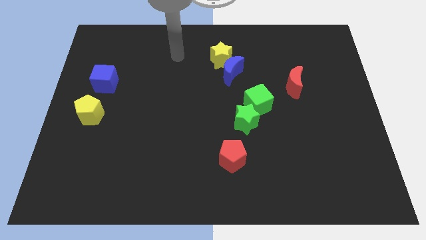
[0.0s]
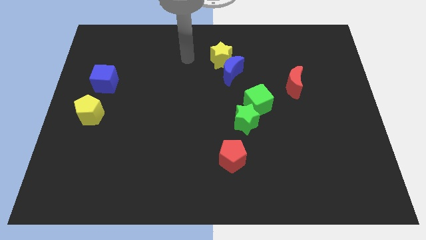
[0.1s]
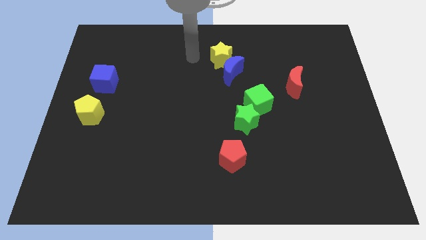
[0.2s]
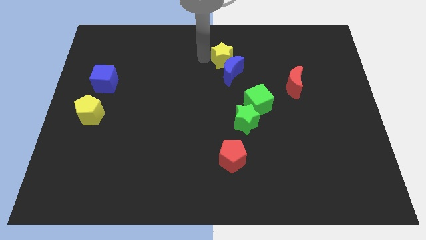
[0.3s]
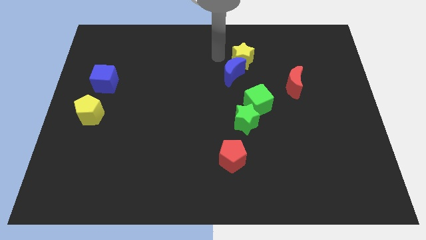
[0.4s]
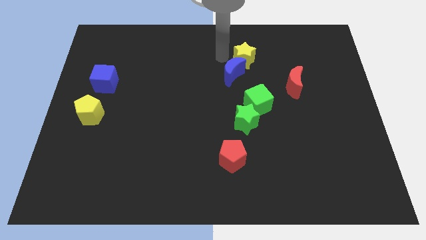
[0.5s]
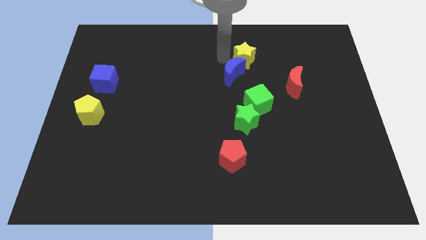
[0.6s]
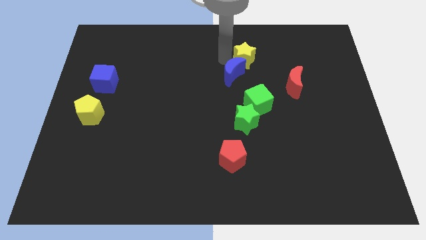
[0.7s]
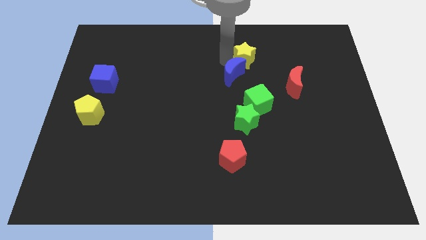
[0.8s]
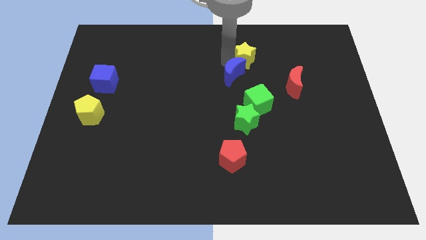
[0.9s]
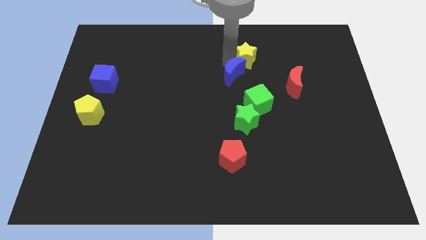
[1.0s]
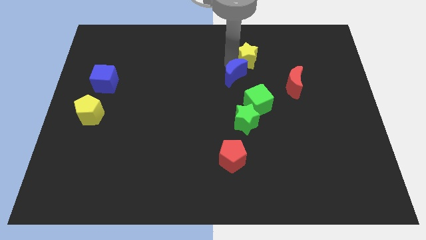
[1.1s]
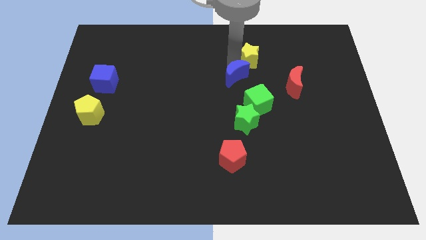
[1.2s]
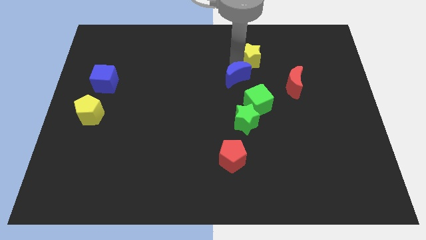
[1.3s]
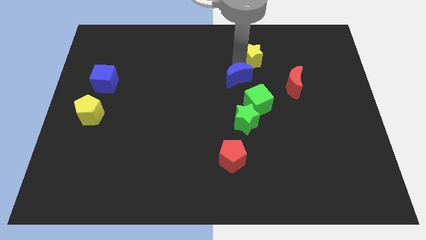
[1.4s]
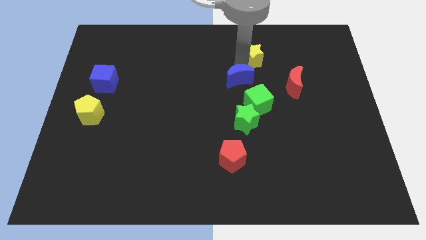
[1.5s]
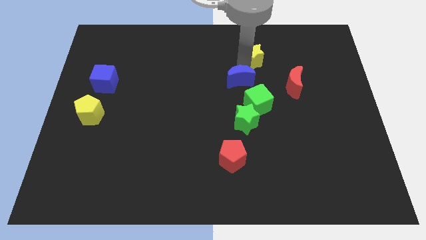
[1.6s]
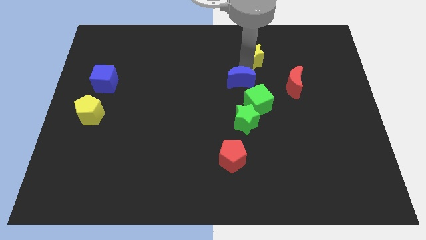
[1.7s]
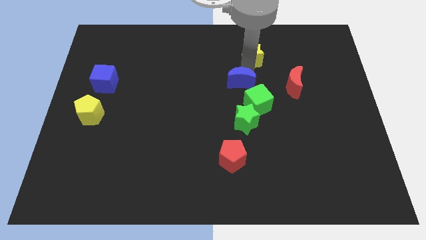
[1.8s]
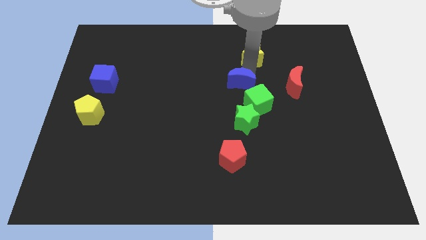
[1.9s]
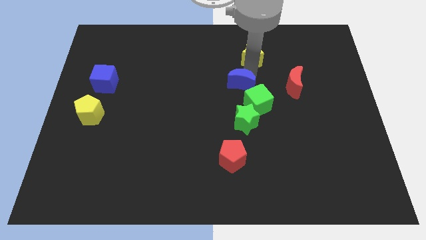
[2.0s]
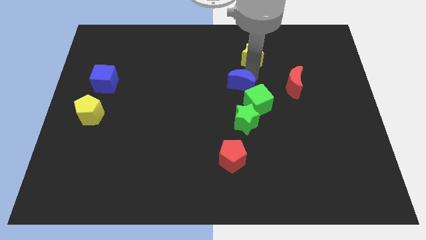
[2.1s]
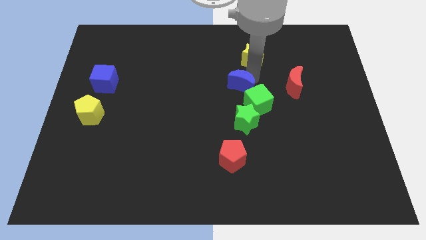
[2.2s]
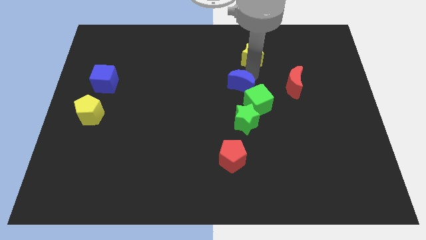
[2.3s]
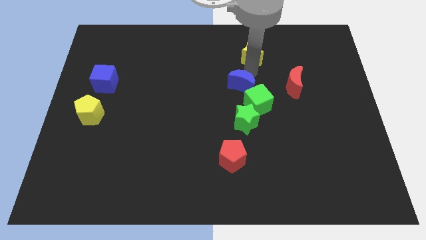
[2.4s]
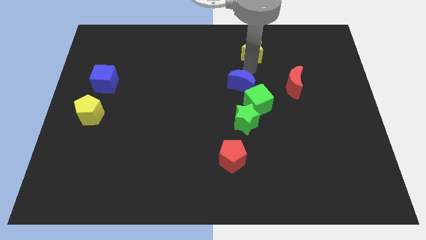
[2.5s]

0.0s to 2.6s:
pull the blue moon apart from the yellow star

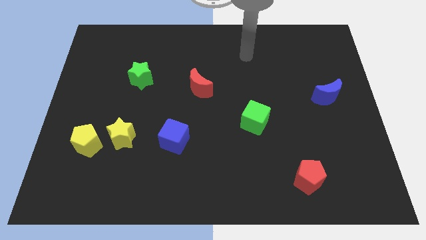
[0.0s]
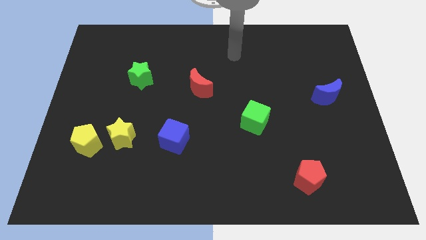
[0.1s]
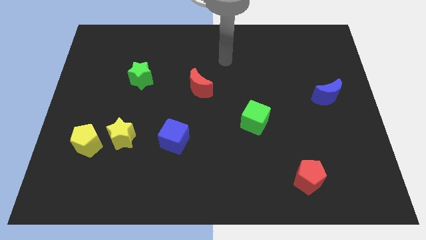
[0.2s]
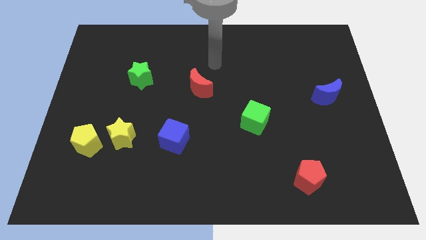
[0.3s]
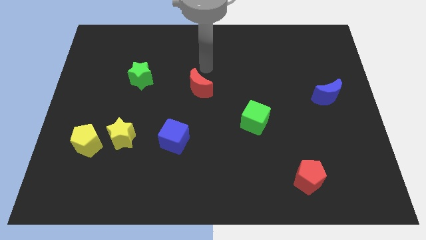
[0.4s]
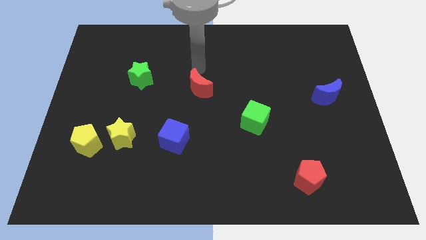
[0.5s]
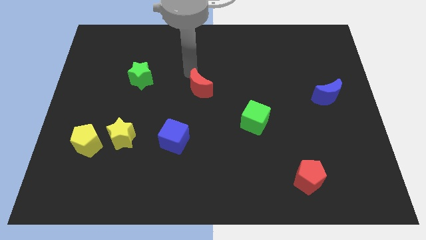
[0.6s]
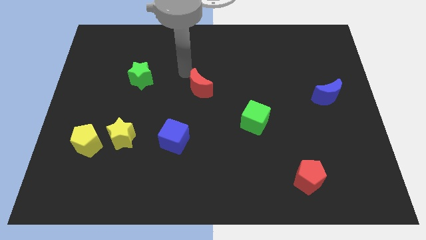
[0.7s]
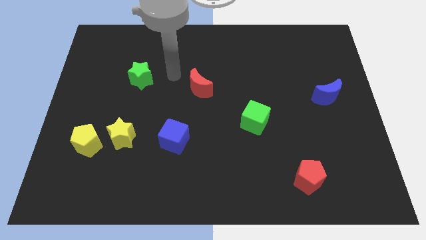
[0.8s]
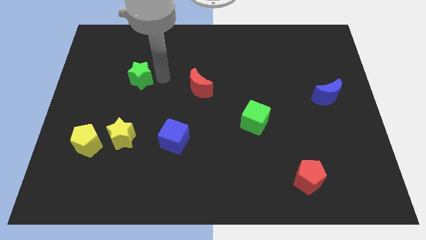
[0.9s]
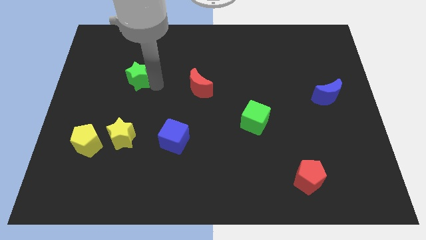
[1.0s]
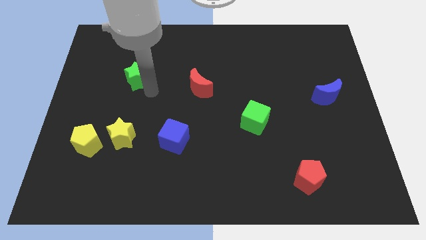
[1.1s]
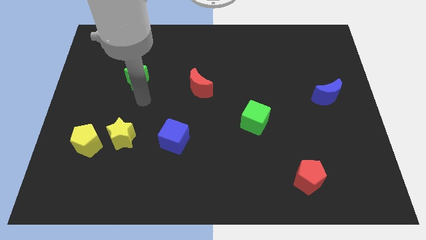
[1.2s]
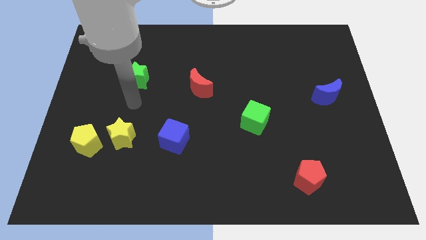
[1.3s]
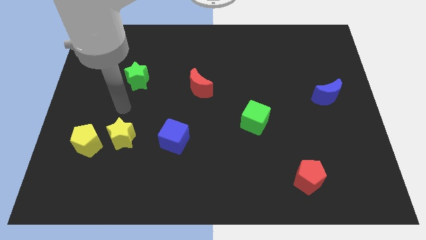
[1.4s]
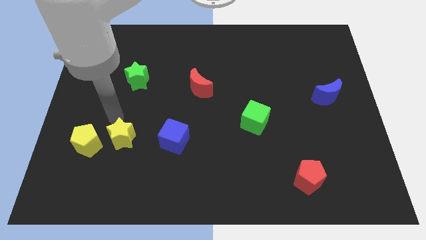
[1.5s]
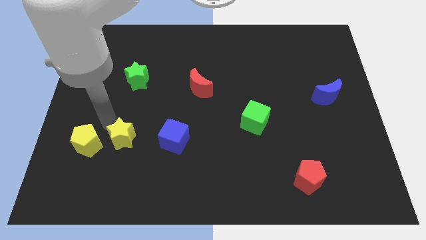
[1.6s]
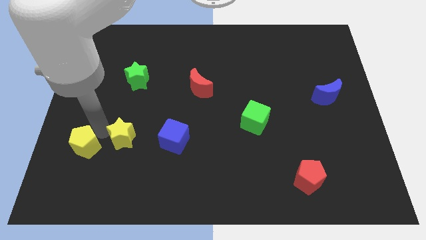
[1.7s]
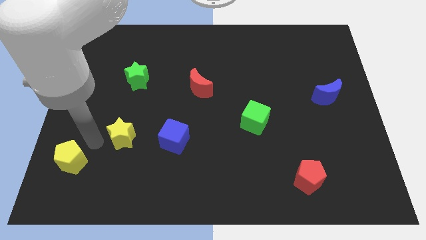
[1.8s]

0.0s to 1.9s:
pull the yellow star apart from the yellow pentagon

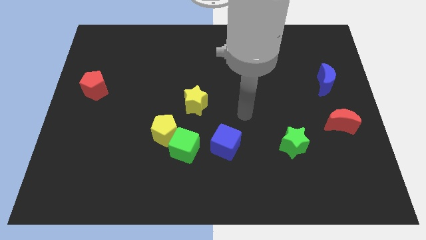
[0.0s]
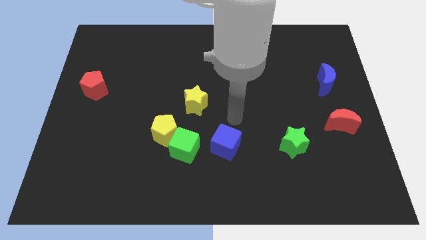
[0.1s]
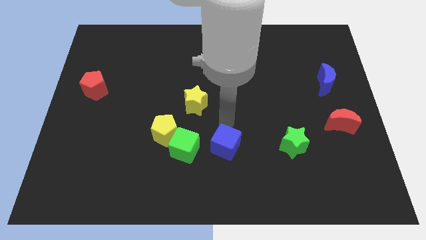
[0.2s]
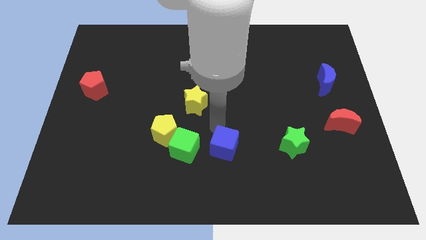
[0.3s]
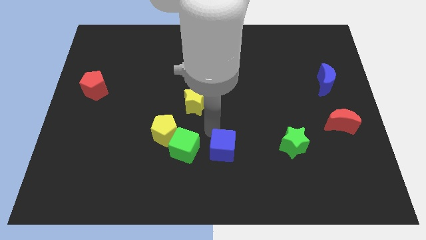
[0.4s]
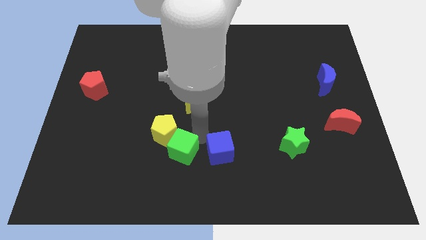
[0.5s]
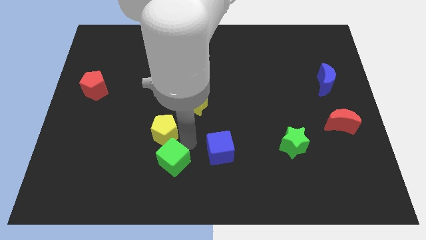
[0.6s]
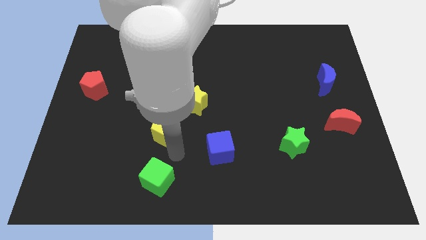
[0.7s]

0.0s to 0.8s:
move the yellow pentagon away from the green cube

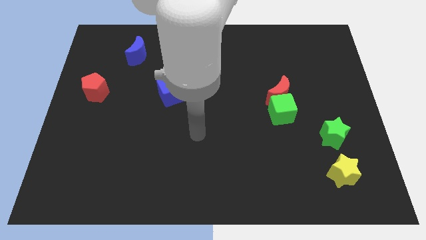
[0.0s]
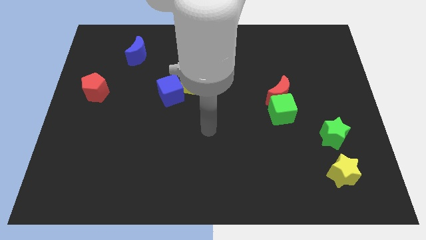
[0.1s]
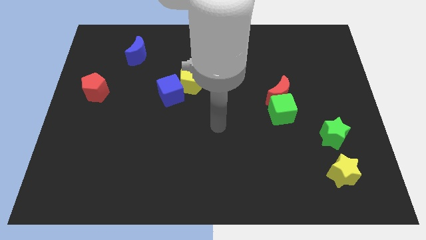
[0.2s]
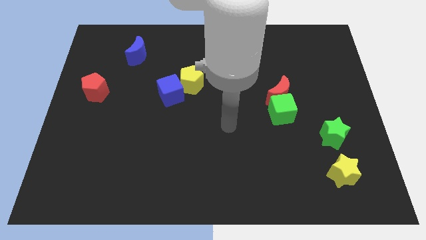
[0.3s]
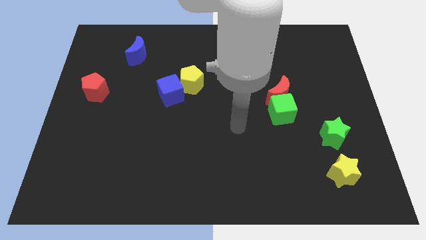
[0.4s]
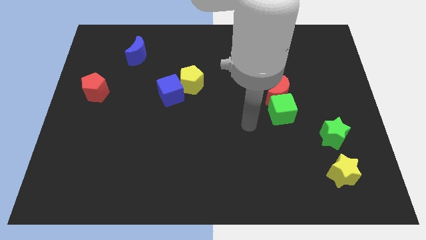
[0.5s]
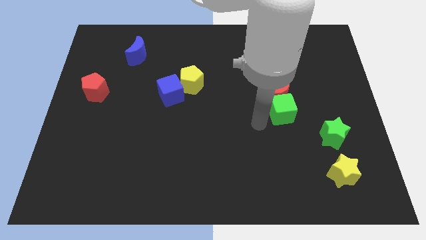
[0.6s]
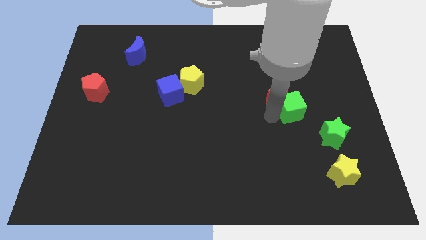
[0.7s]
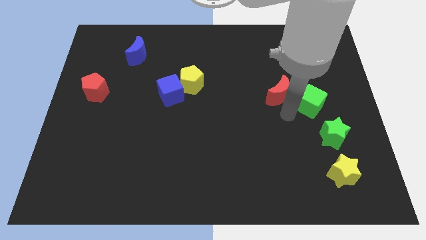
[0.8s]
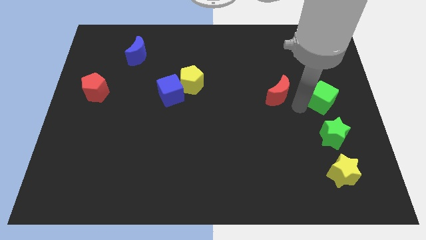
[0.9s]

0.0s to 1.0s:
separate the red moon from the green cube

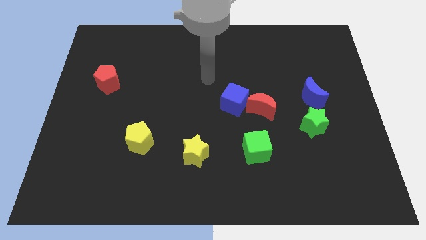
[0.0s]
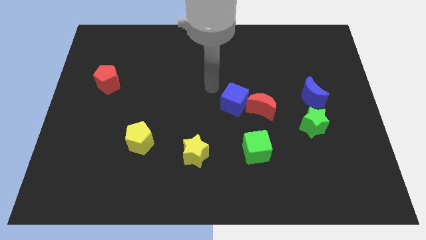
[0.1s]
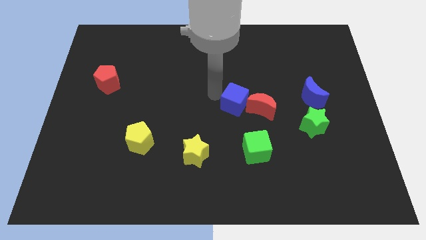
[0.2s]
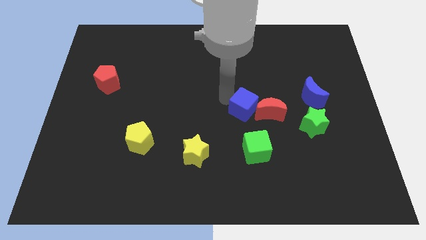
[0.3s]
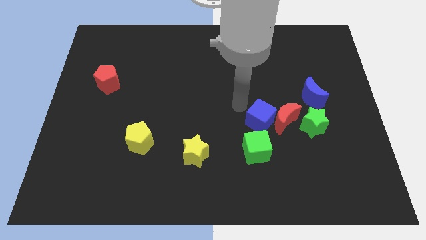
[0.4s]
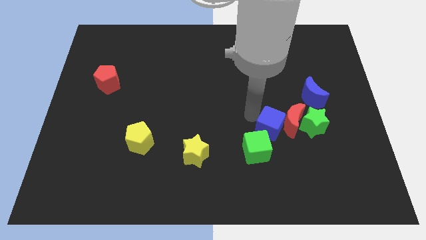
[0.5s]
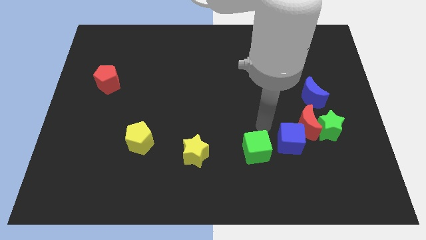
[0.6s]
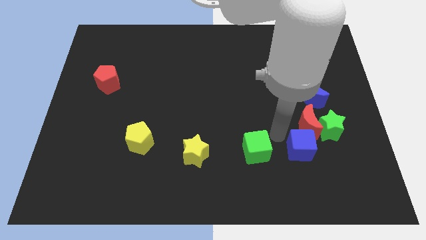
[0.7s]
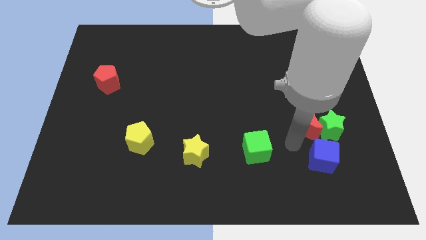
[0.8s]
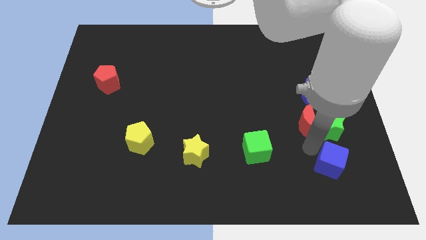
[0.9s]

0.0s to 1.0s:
pull the red moon apart from the blue cube

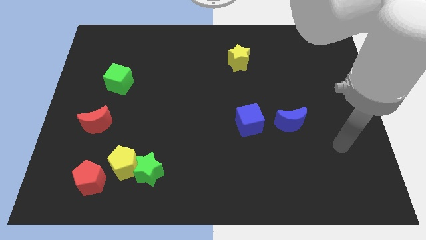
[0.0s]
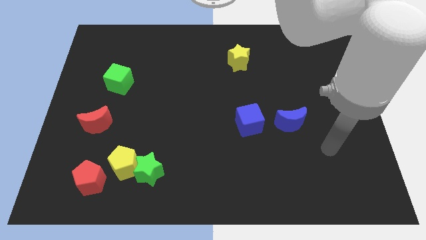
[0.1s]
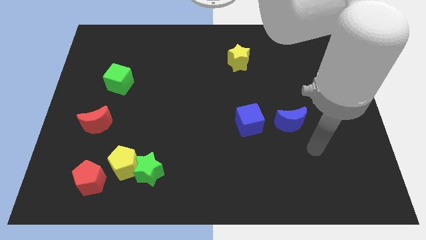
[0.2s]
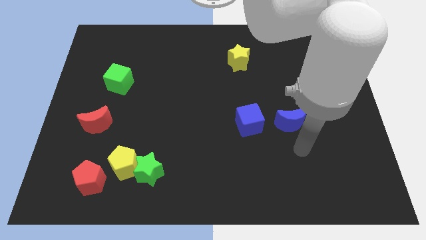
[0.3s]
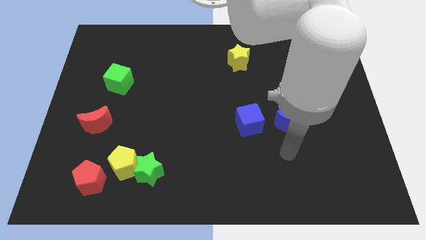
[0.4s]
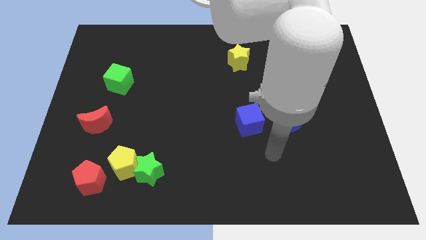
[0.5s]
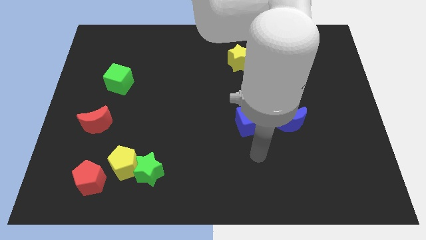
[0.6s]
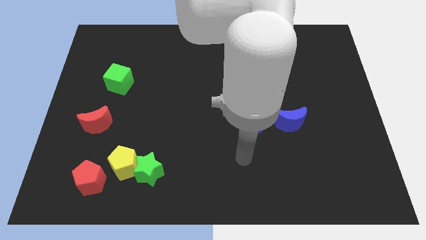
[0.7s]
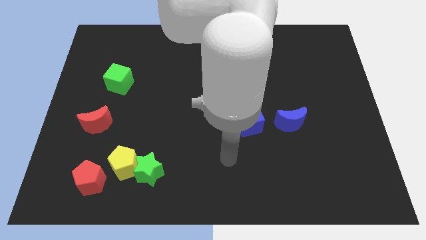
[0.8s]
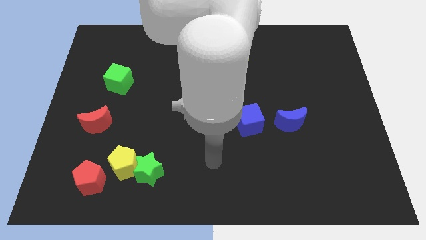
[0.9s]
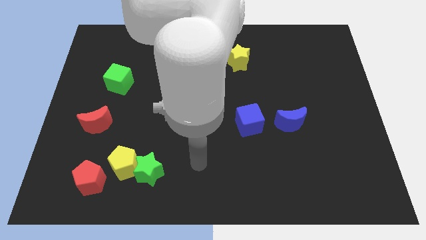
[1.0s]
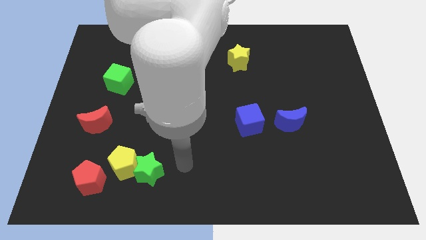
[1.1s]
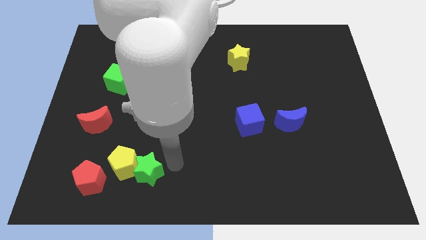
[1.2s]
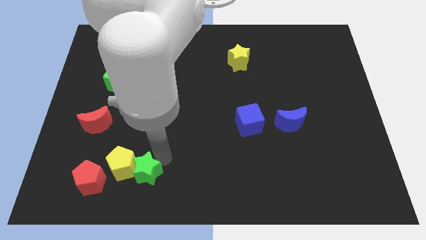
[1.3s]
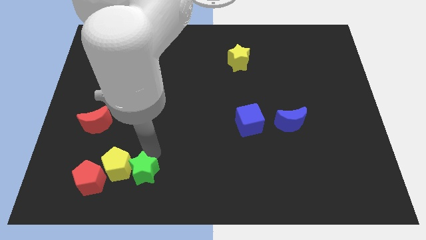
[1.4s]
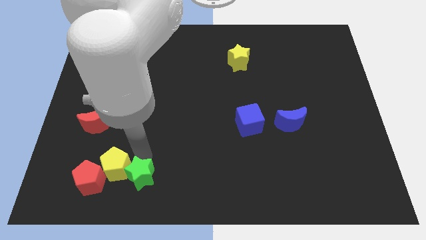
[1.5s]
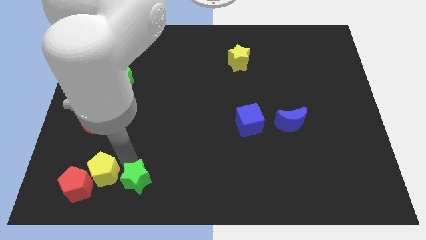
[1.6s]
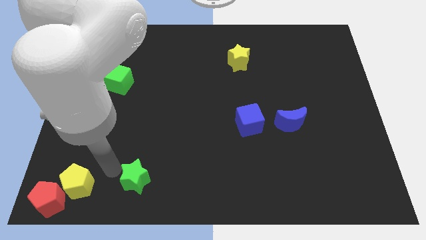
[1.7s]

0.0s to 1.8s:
separate the green star from the yellow pentagon

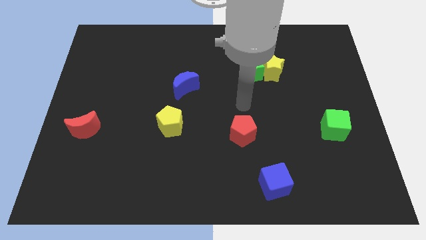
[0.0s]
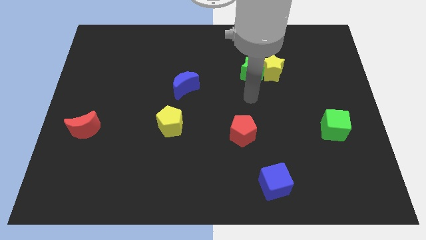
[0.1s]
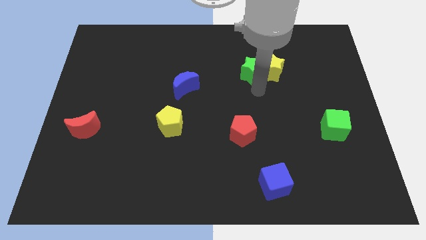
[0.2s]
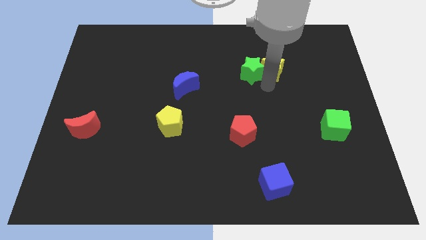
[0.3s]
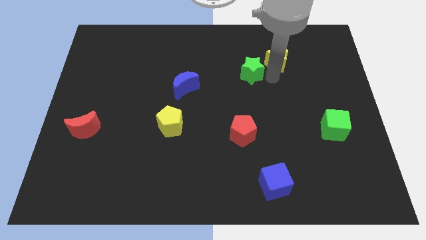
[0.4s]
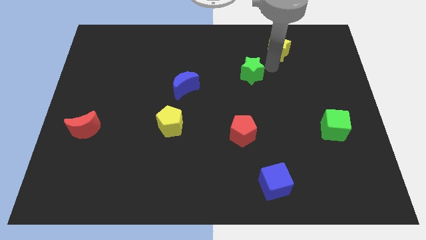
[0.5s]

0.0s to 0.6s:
pull the green star apart from the yellow star
